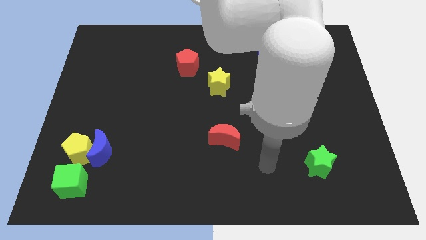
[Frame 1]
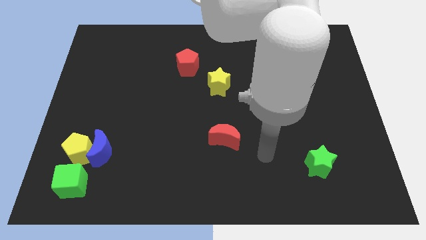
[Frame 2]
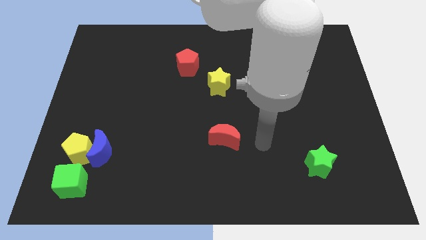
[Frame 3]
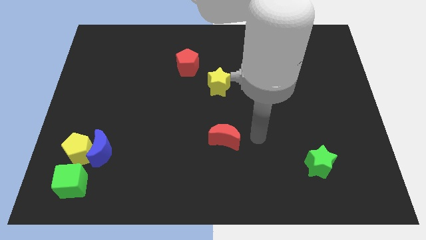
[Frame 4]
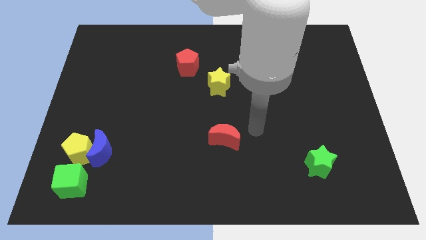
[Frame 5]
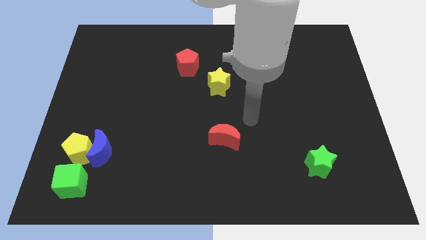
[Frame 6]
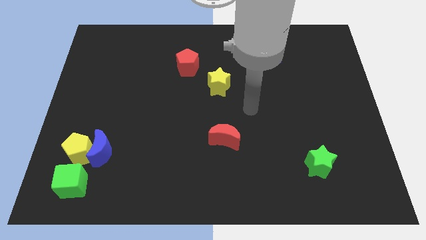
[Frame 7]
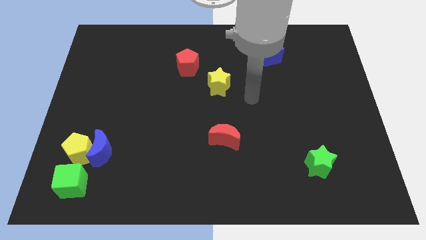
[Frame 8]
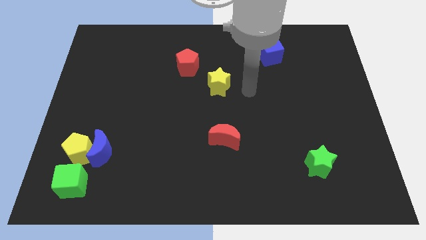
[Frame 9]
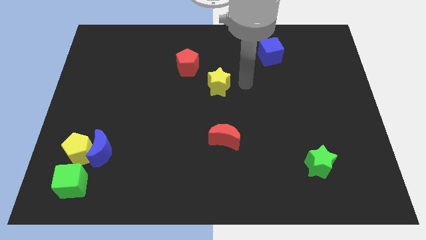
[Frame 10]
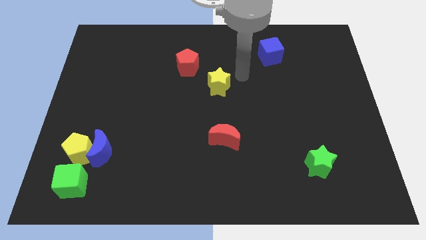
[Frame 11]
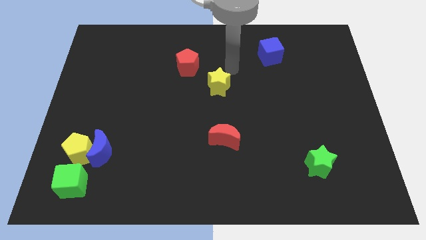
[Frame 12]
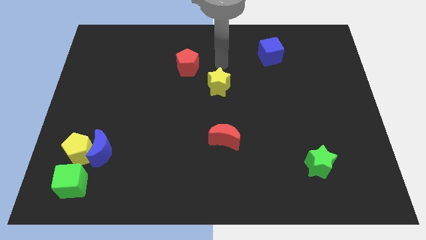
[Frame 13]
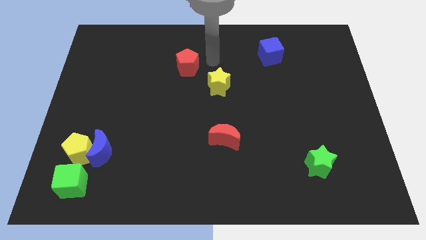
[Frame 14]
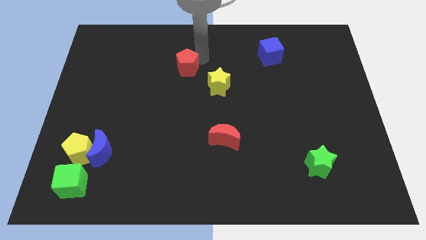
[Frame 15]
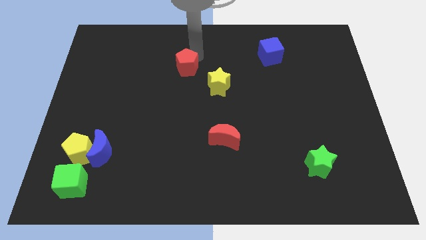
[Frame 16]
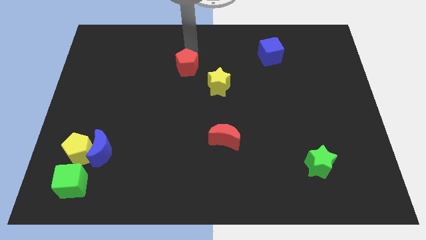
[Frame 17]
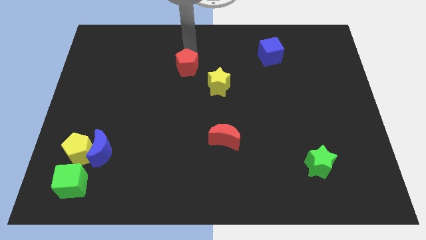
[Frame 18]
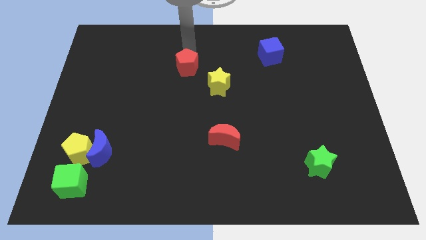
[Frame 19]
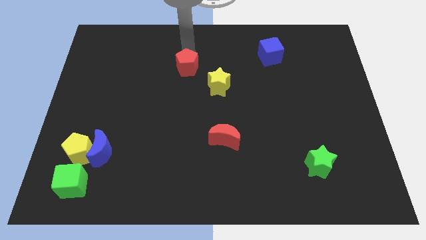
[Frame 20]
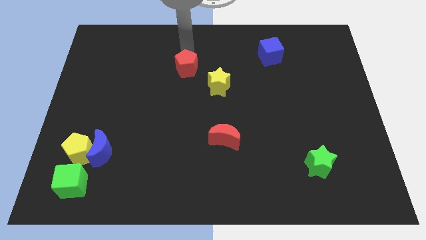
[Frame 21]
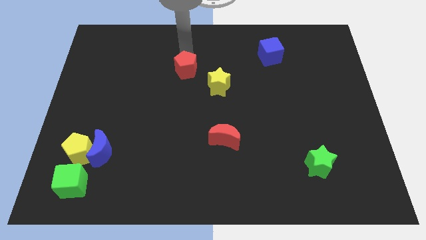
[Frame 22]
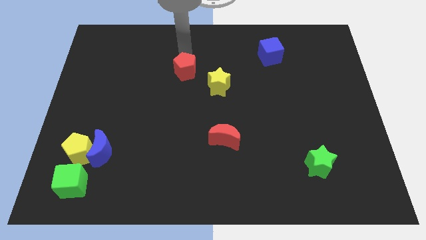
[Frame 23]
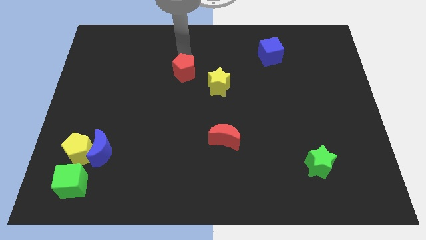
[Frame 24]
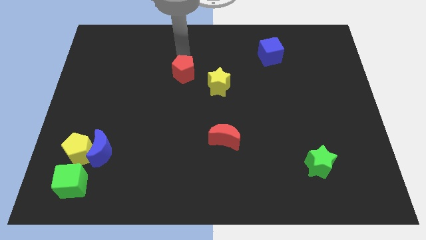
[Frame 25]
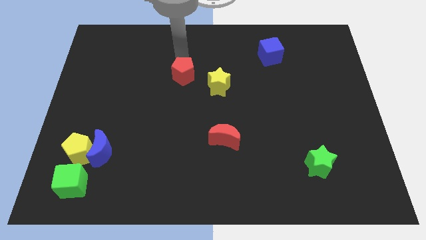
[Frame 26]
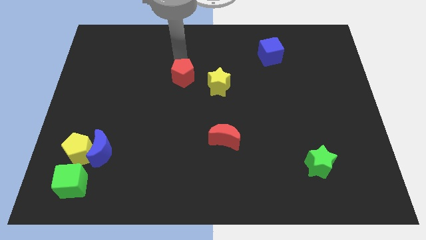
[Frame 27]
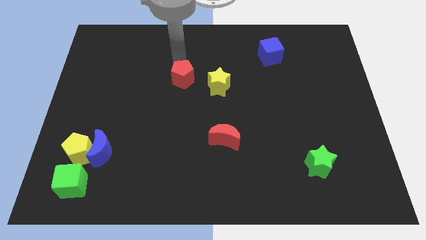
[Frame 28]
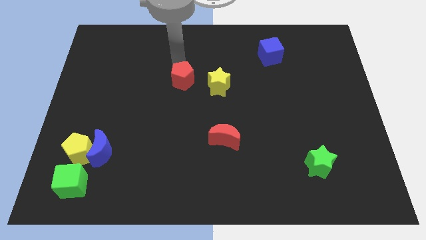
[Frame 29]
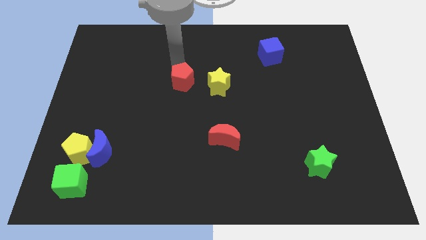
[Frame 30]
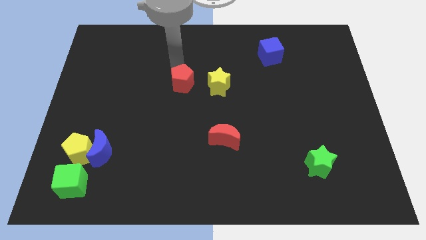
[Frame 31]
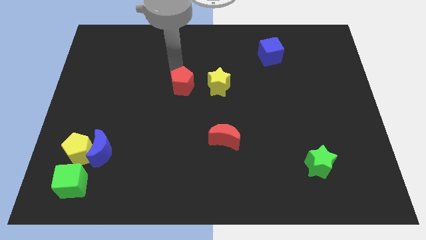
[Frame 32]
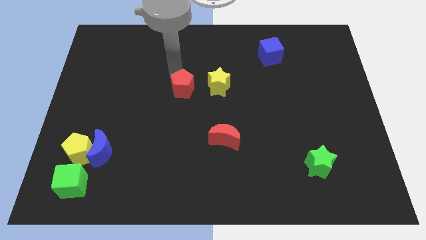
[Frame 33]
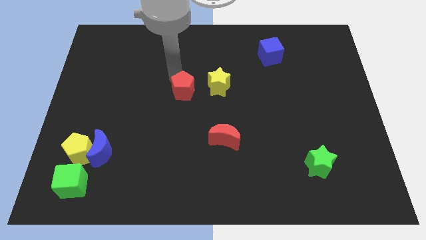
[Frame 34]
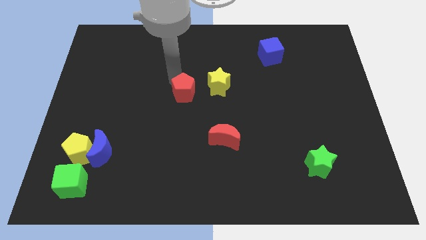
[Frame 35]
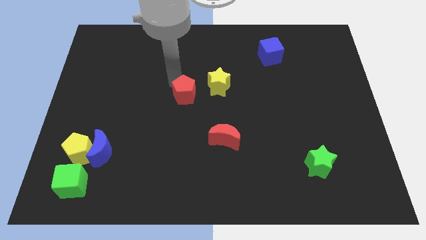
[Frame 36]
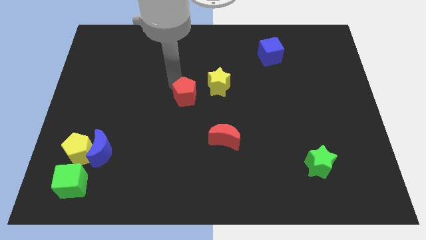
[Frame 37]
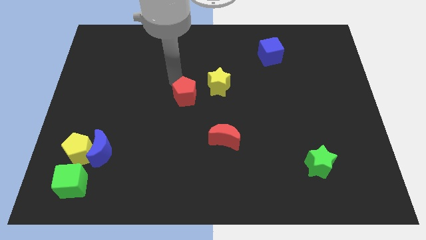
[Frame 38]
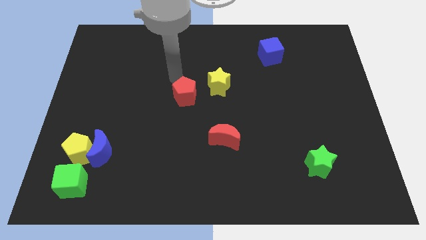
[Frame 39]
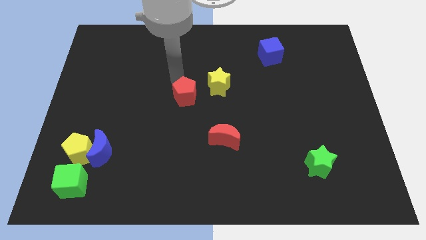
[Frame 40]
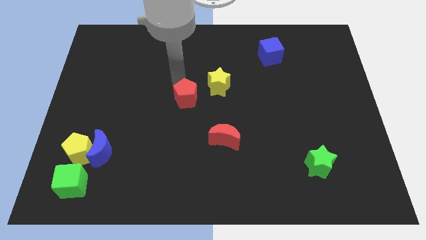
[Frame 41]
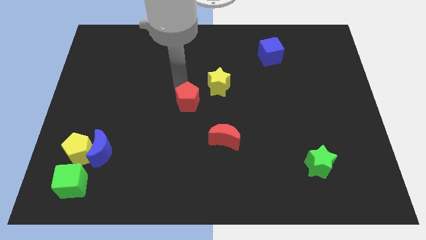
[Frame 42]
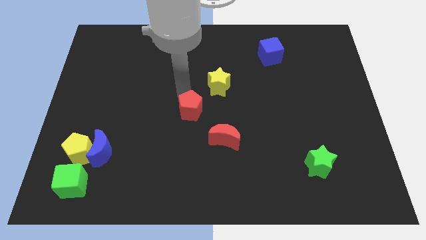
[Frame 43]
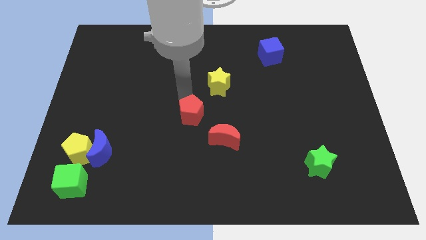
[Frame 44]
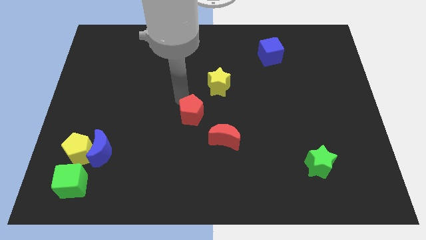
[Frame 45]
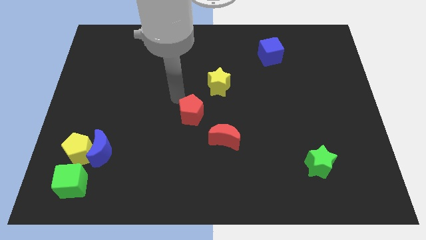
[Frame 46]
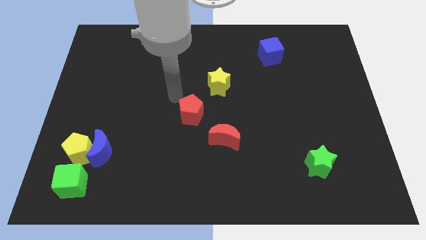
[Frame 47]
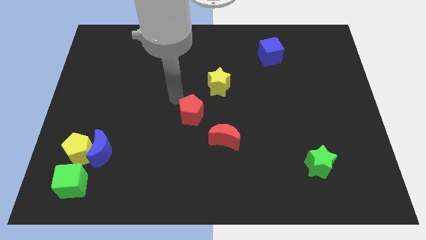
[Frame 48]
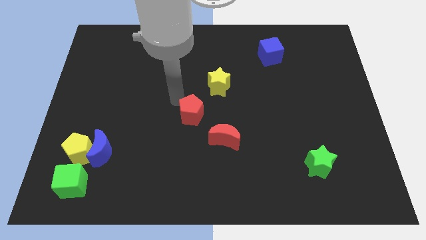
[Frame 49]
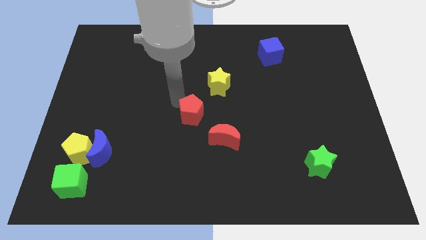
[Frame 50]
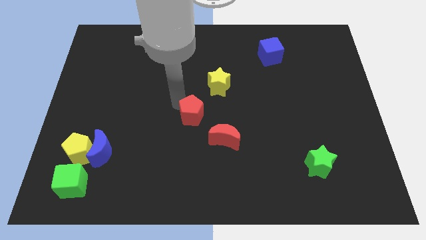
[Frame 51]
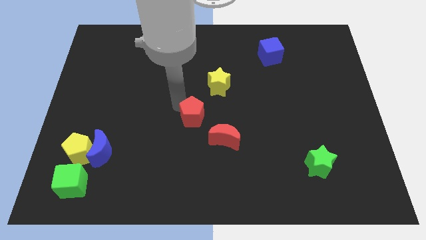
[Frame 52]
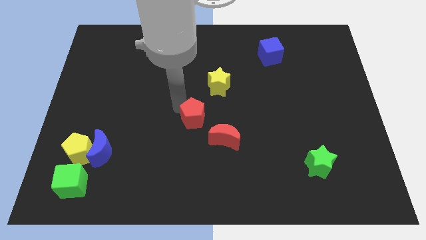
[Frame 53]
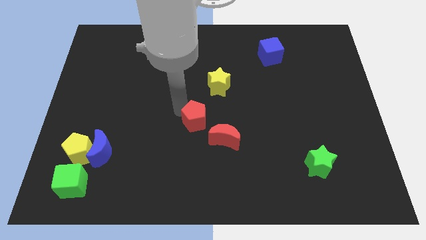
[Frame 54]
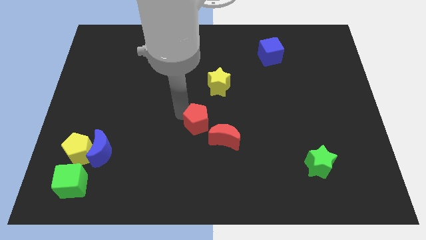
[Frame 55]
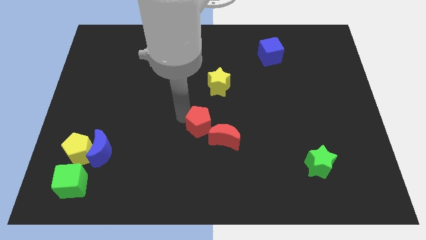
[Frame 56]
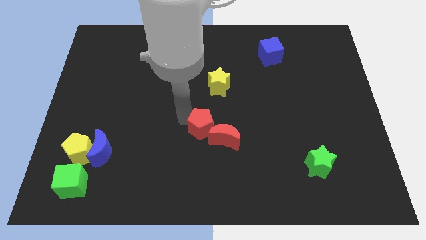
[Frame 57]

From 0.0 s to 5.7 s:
move the red pentagon to the red moon

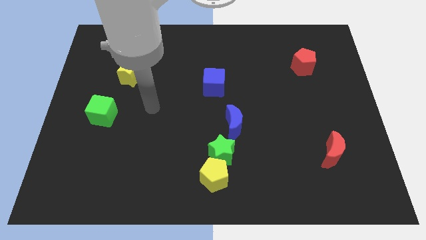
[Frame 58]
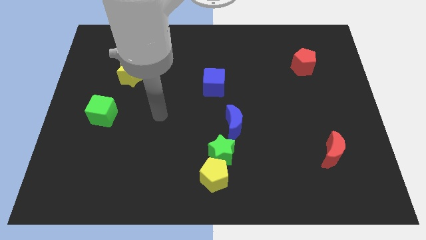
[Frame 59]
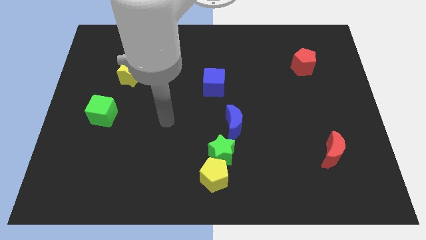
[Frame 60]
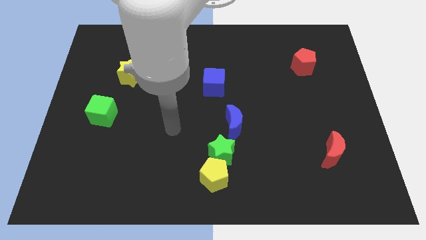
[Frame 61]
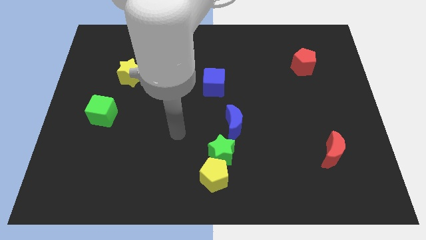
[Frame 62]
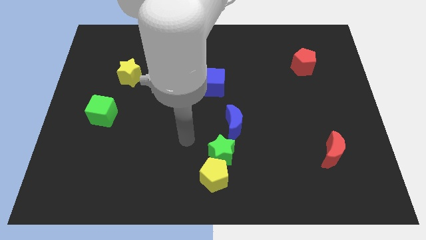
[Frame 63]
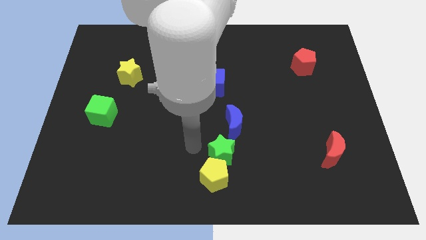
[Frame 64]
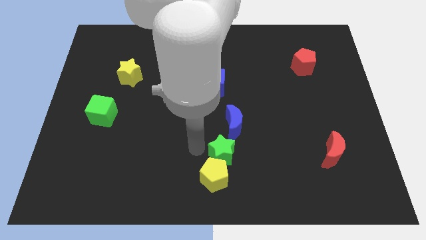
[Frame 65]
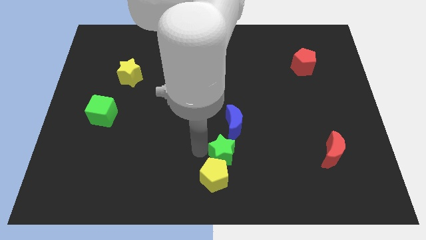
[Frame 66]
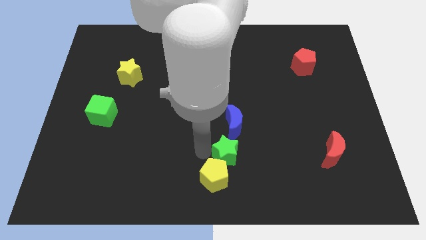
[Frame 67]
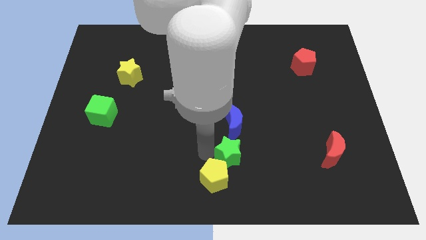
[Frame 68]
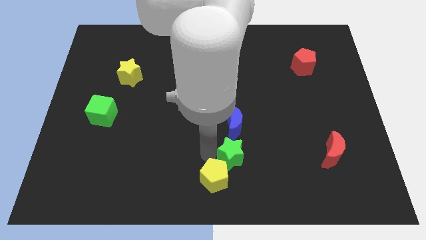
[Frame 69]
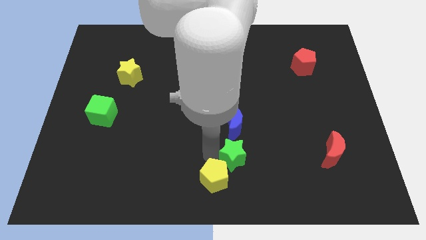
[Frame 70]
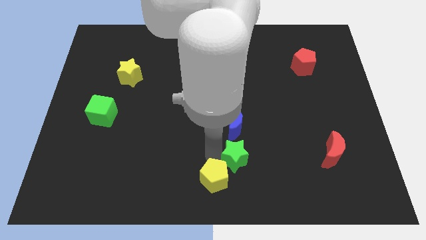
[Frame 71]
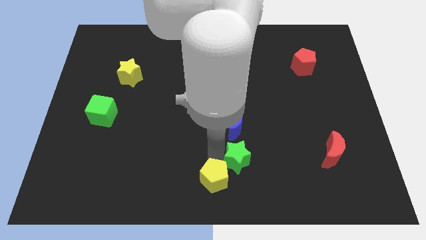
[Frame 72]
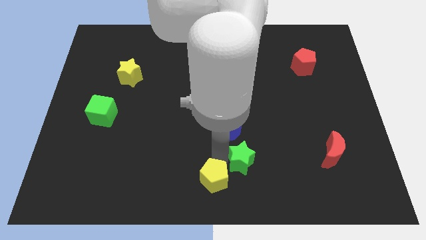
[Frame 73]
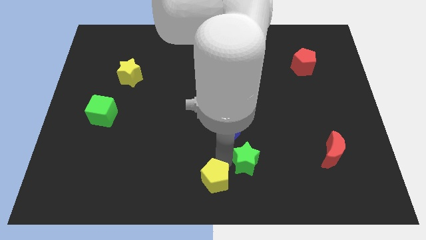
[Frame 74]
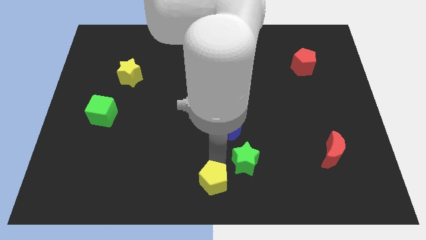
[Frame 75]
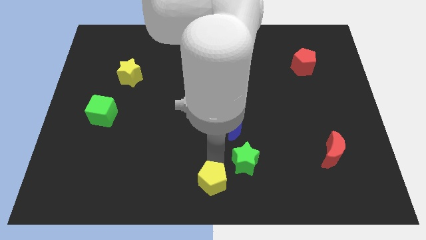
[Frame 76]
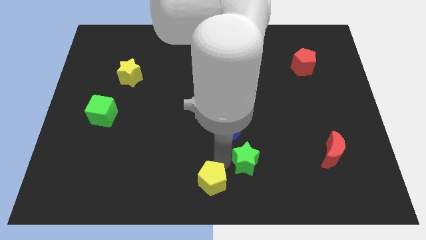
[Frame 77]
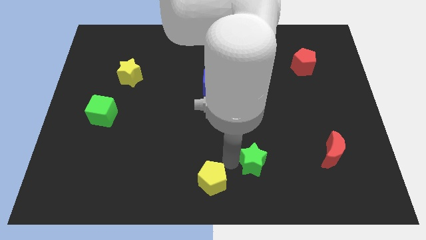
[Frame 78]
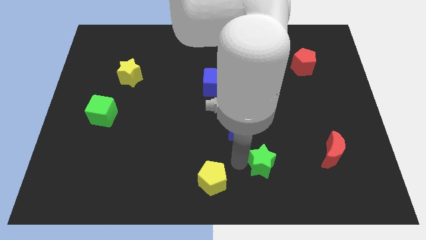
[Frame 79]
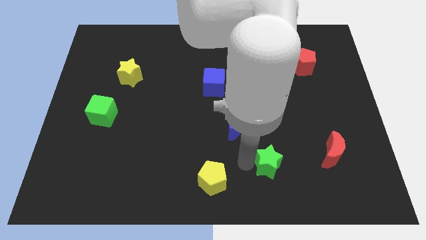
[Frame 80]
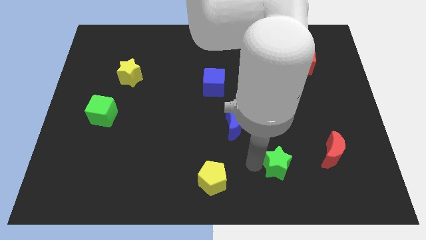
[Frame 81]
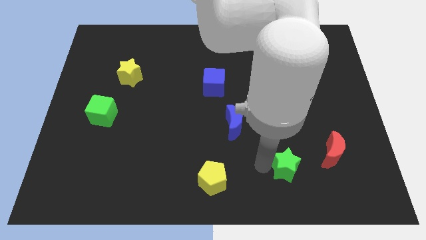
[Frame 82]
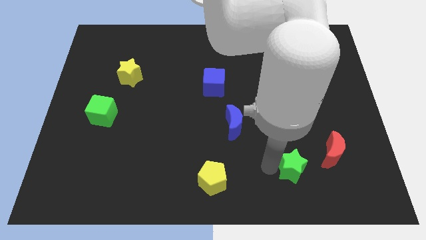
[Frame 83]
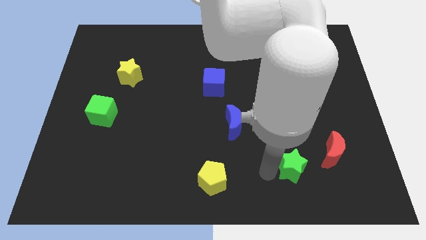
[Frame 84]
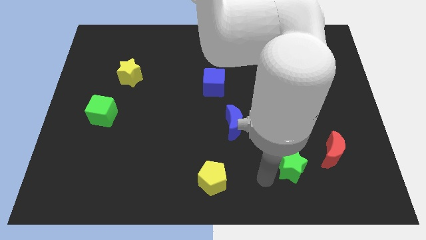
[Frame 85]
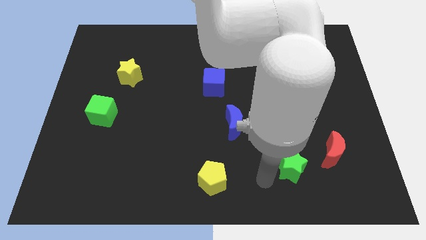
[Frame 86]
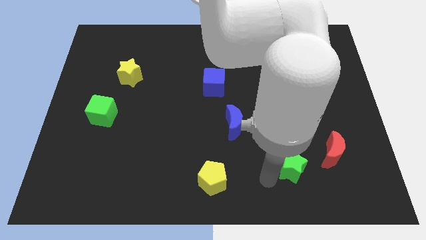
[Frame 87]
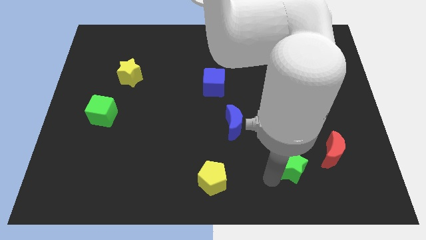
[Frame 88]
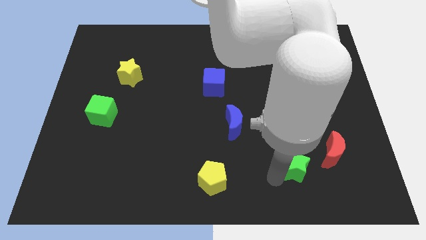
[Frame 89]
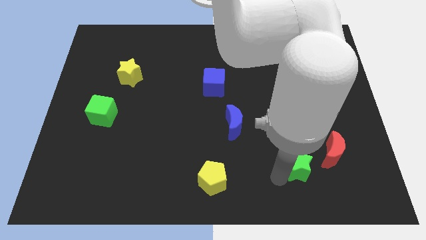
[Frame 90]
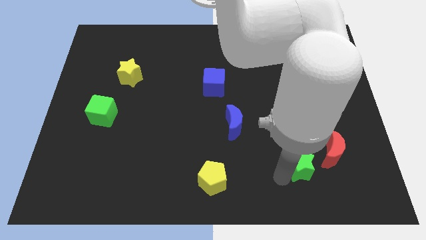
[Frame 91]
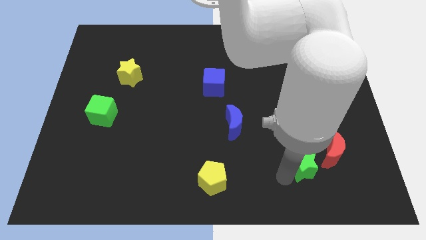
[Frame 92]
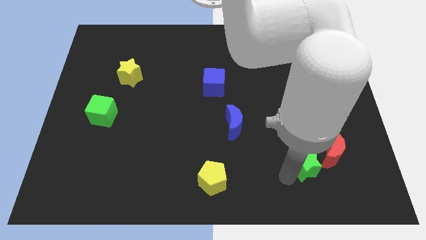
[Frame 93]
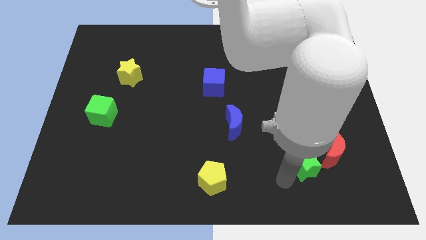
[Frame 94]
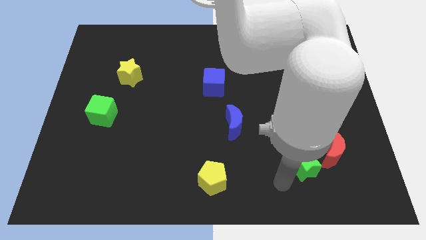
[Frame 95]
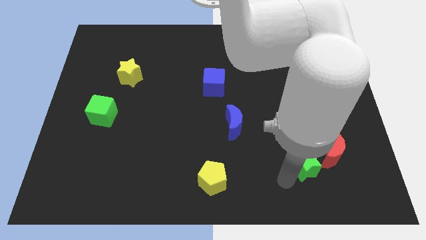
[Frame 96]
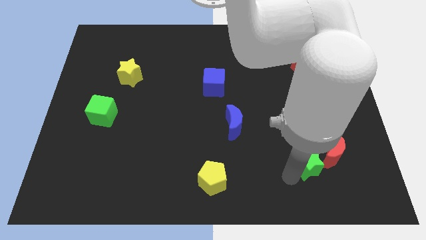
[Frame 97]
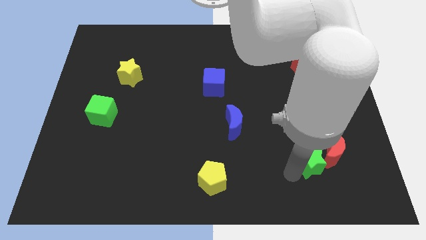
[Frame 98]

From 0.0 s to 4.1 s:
slide the green star next to the red moon
